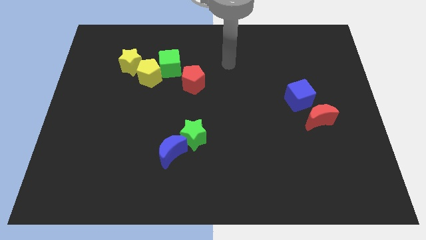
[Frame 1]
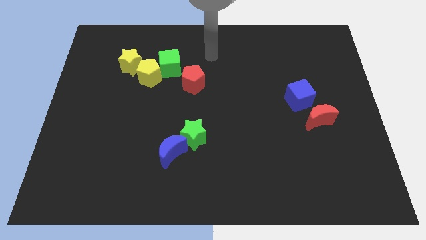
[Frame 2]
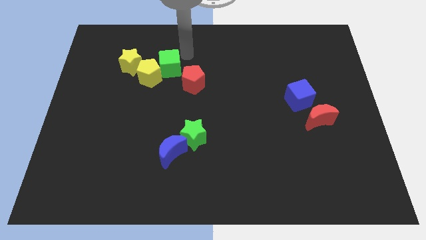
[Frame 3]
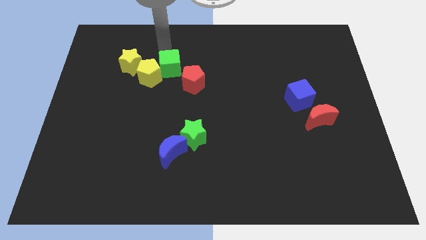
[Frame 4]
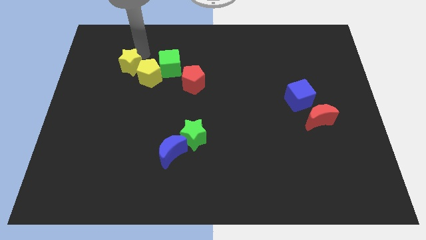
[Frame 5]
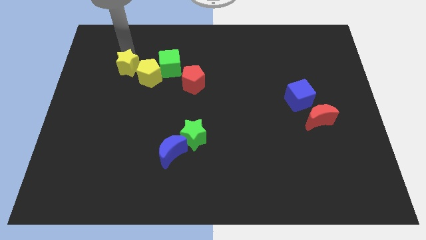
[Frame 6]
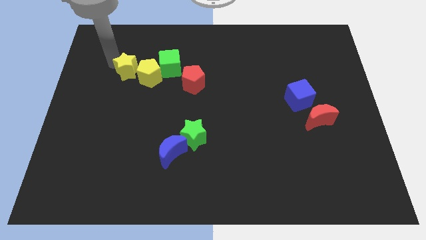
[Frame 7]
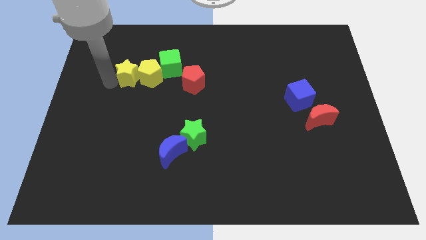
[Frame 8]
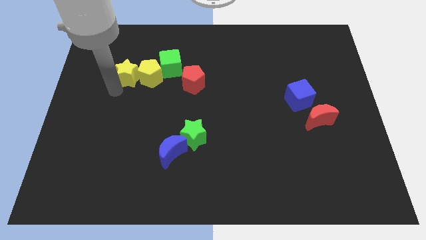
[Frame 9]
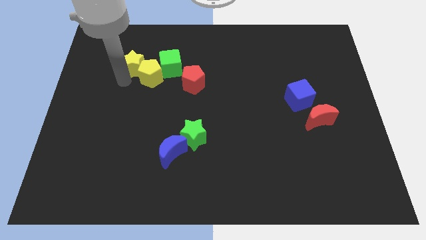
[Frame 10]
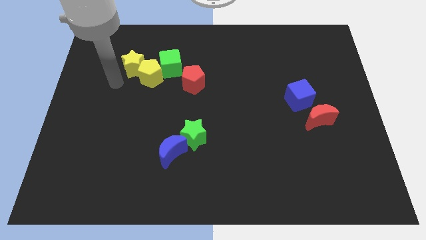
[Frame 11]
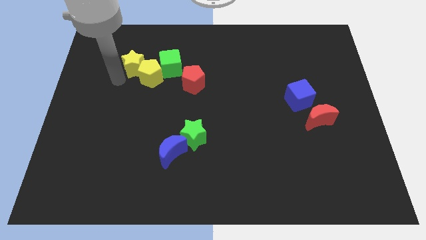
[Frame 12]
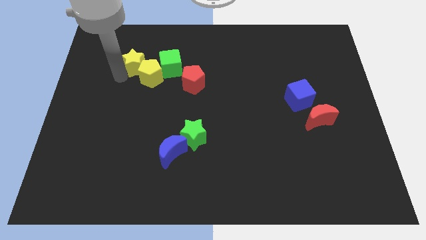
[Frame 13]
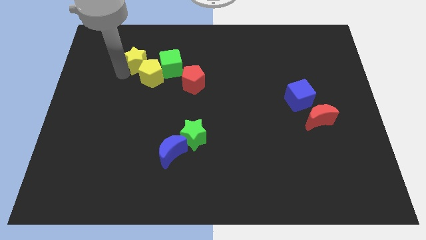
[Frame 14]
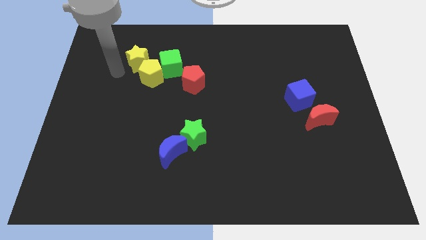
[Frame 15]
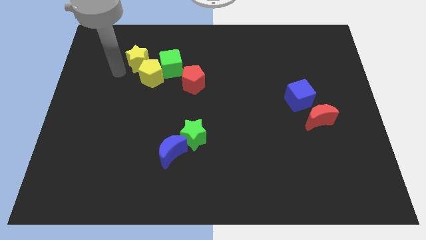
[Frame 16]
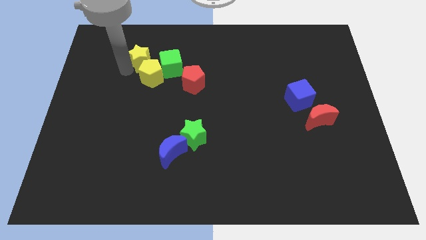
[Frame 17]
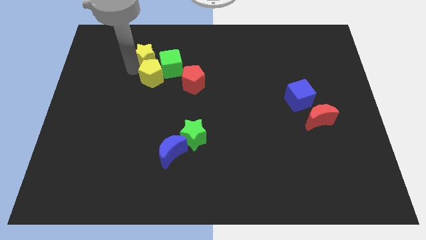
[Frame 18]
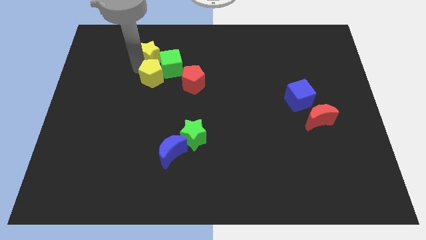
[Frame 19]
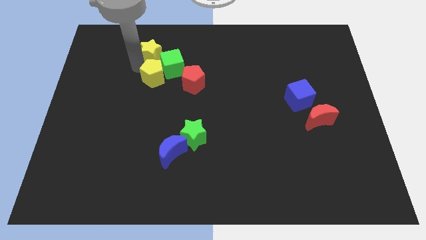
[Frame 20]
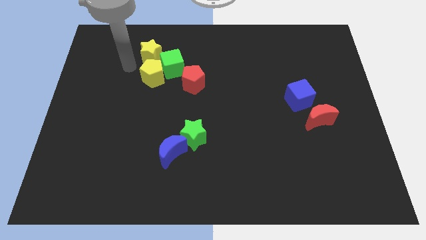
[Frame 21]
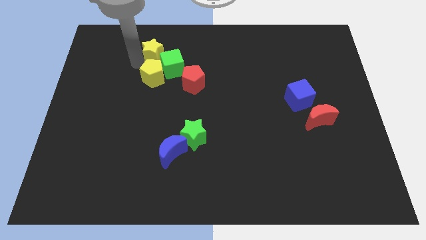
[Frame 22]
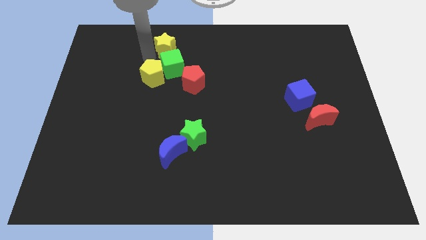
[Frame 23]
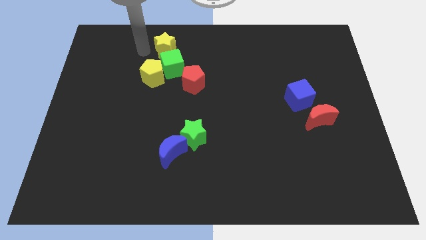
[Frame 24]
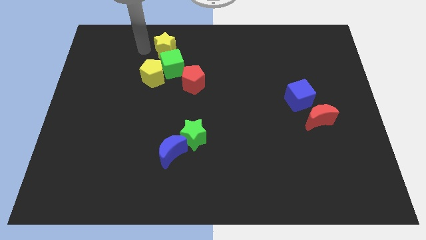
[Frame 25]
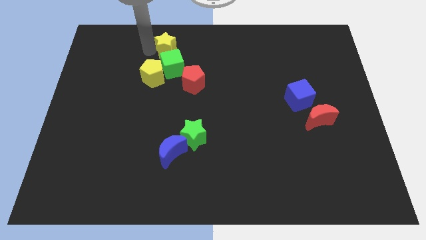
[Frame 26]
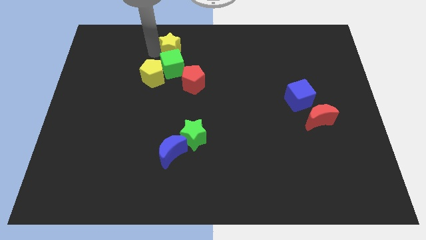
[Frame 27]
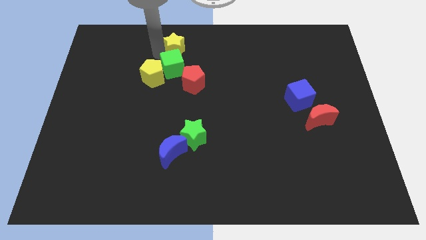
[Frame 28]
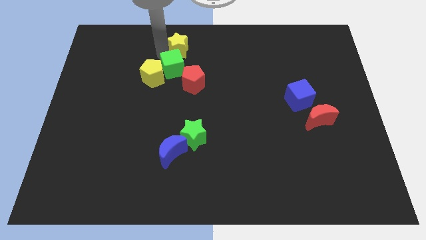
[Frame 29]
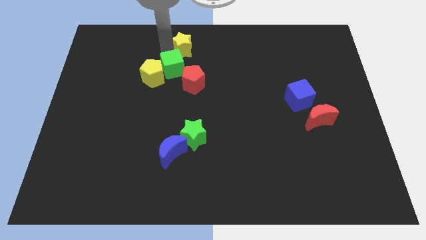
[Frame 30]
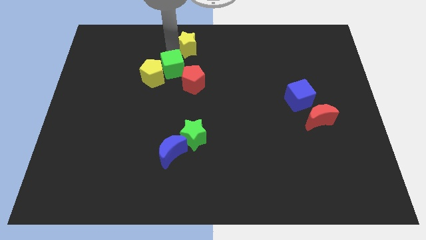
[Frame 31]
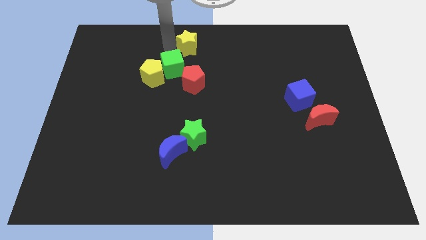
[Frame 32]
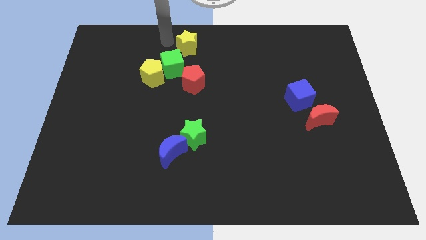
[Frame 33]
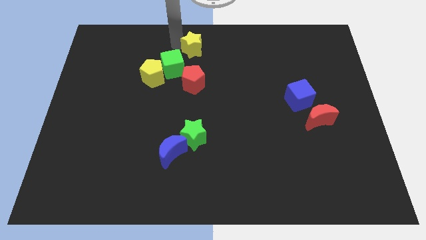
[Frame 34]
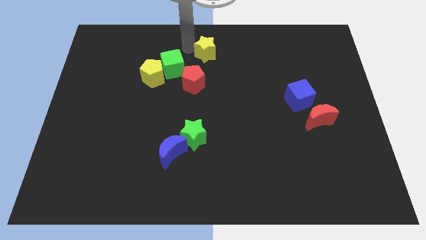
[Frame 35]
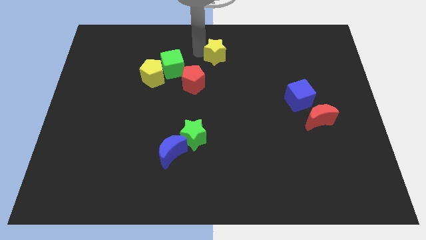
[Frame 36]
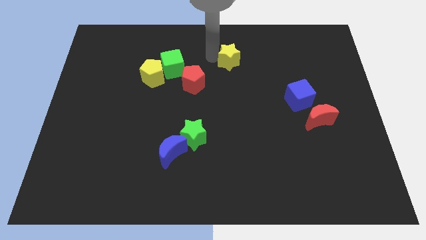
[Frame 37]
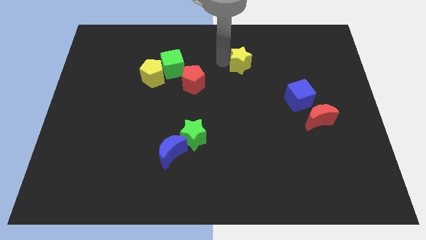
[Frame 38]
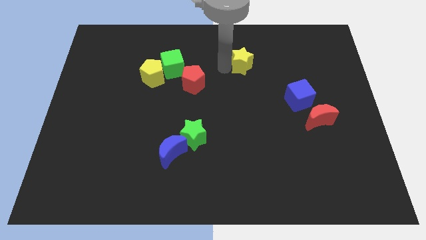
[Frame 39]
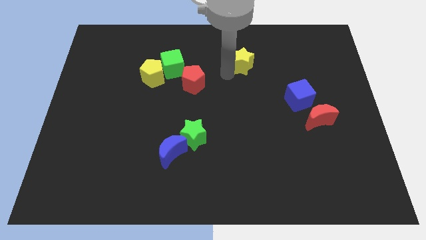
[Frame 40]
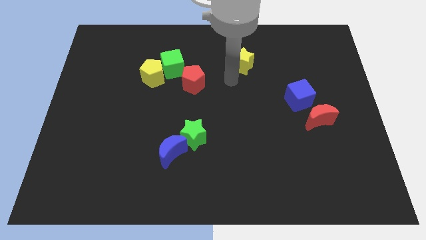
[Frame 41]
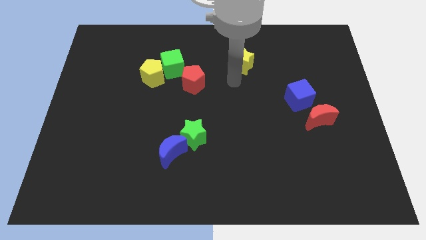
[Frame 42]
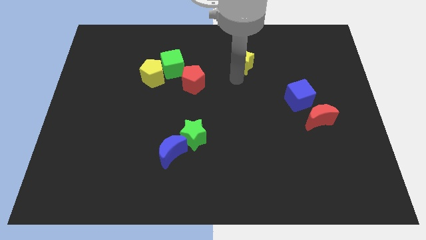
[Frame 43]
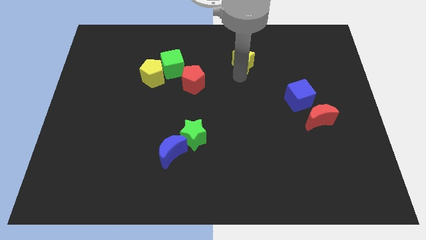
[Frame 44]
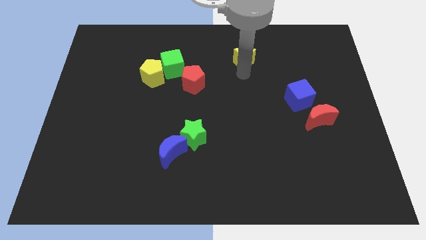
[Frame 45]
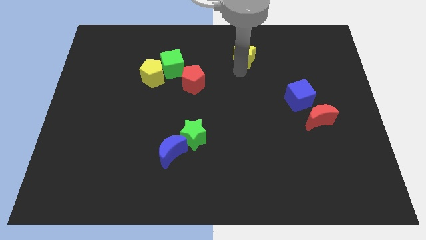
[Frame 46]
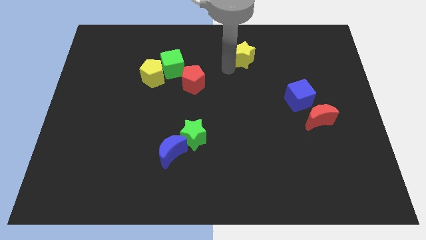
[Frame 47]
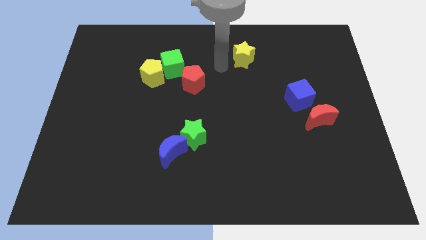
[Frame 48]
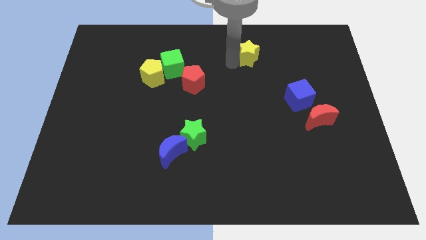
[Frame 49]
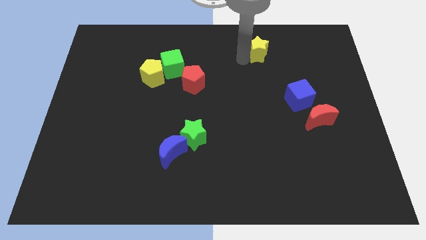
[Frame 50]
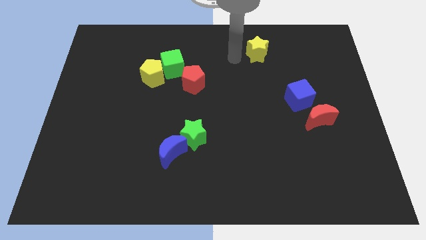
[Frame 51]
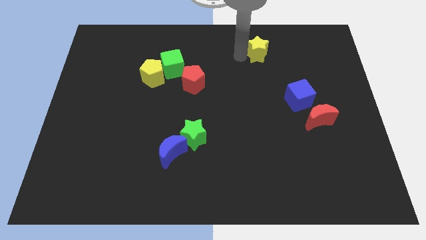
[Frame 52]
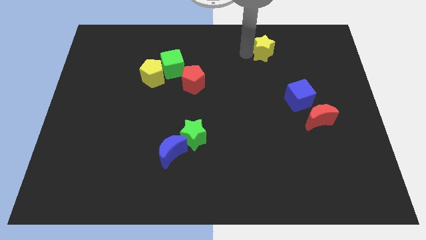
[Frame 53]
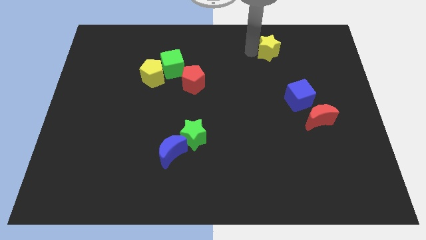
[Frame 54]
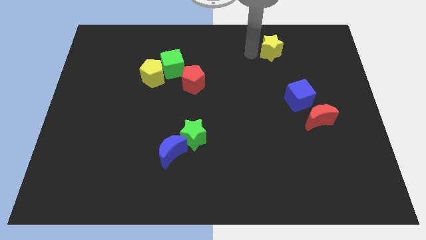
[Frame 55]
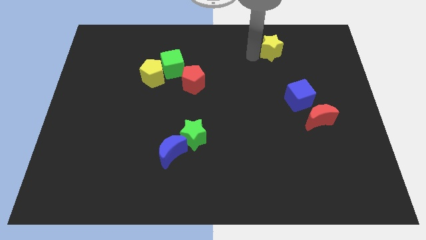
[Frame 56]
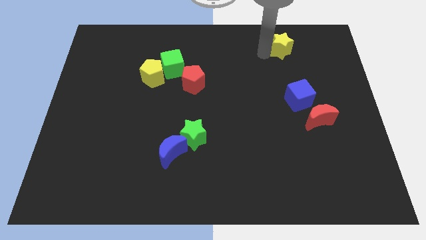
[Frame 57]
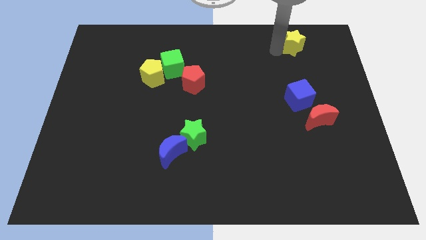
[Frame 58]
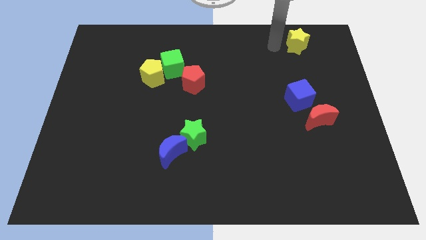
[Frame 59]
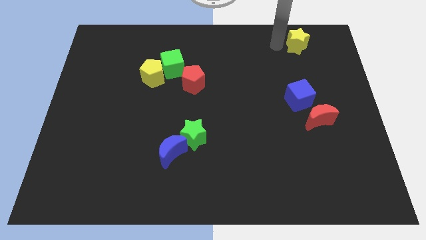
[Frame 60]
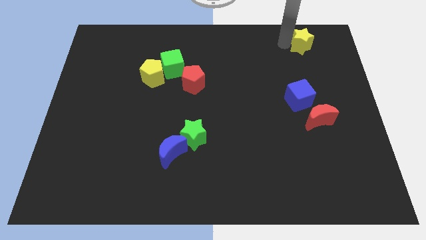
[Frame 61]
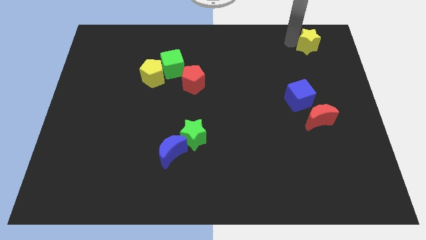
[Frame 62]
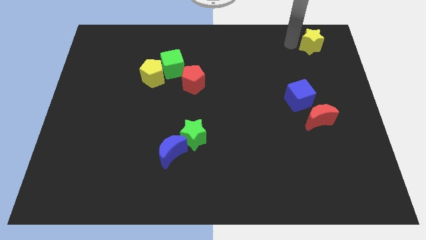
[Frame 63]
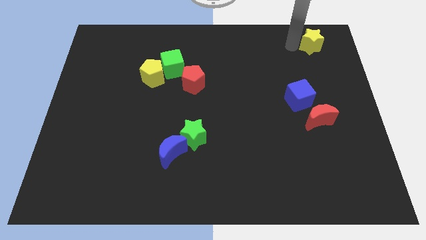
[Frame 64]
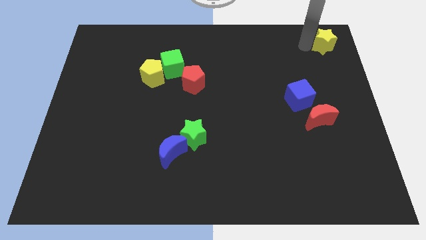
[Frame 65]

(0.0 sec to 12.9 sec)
put the yellow star to the upper right corner
